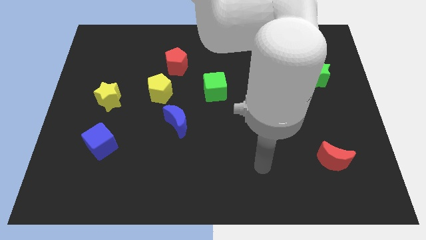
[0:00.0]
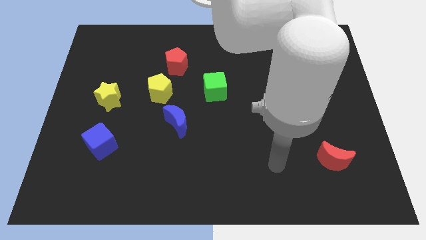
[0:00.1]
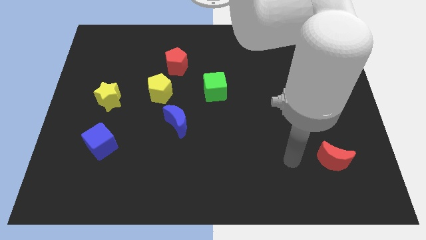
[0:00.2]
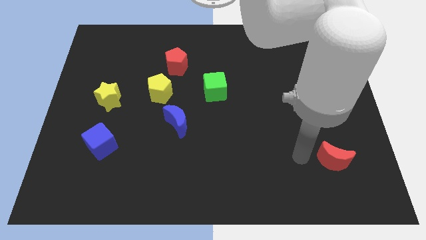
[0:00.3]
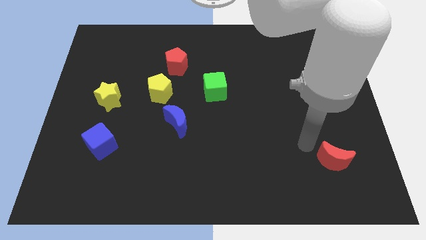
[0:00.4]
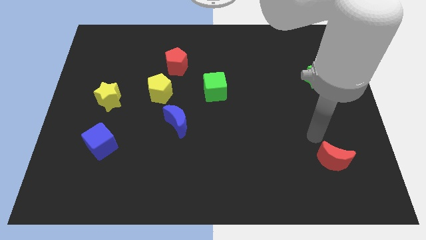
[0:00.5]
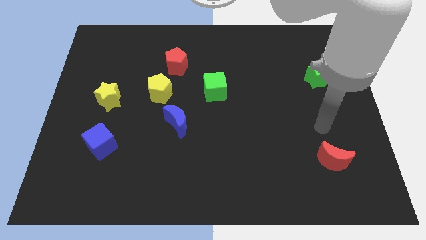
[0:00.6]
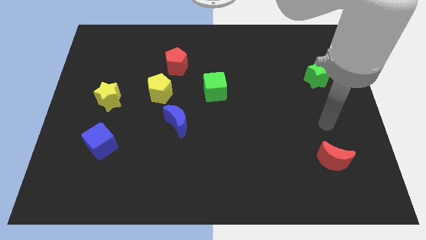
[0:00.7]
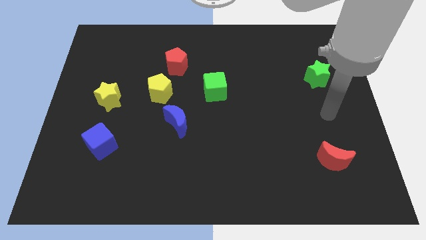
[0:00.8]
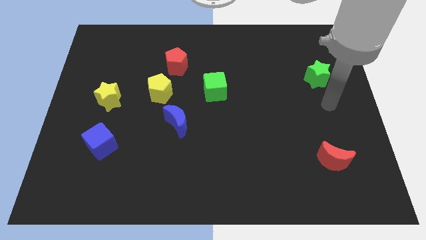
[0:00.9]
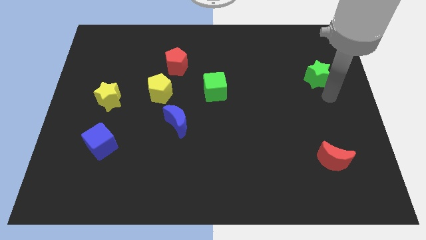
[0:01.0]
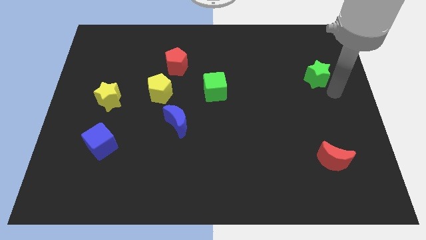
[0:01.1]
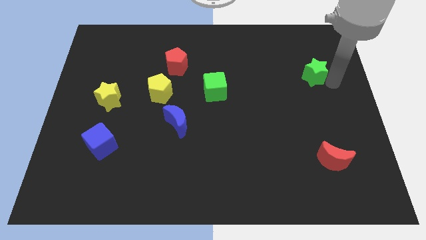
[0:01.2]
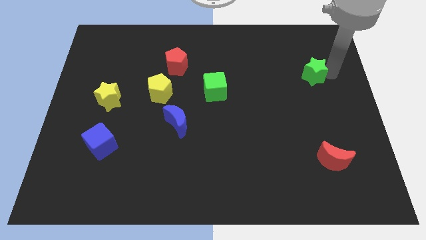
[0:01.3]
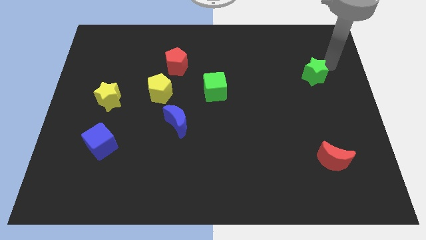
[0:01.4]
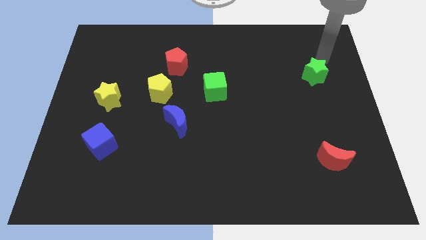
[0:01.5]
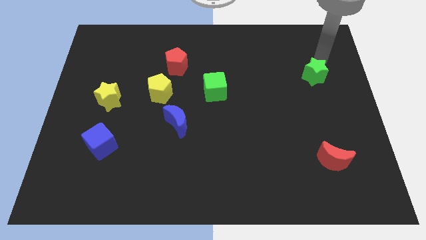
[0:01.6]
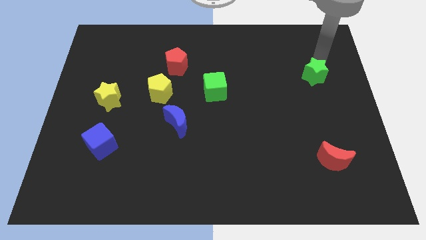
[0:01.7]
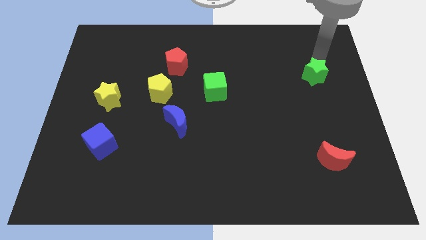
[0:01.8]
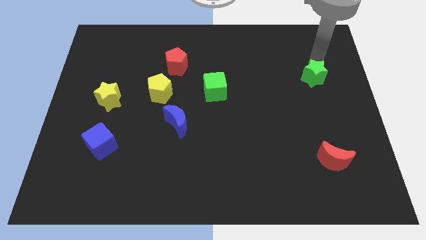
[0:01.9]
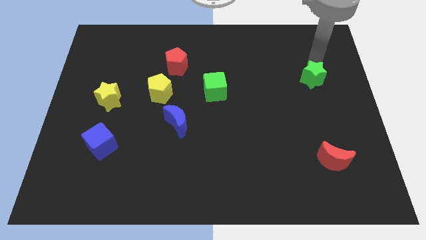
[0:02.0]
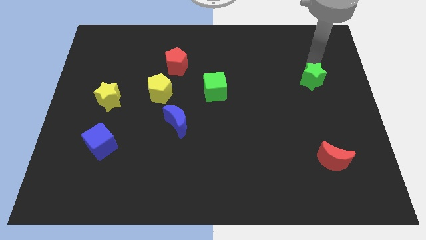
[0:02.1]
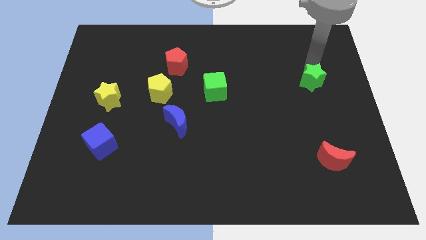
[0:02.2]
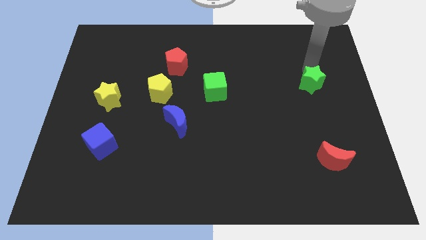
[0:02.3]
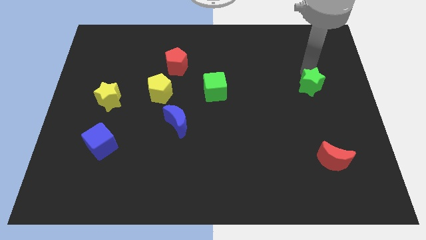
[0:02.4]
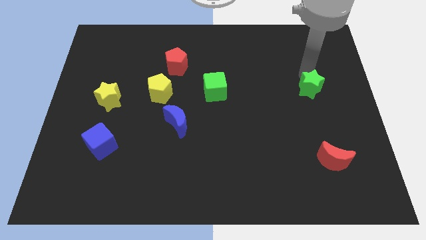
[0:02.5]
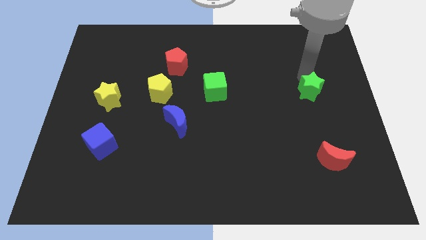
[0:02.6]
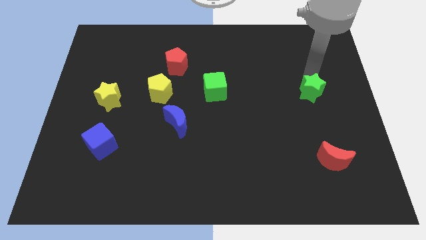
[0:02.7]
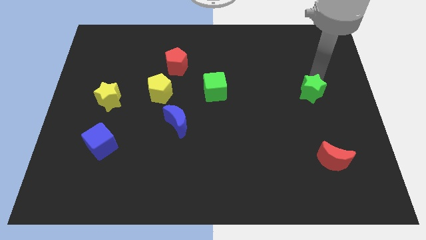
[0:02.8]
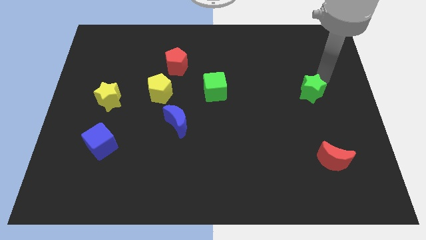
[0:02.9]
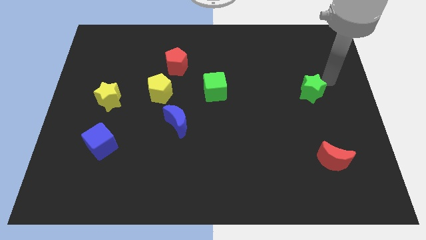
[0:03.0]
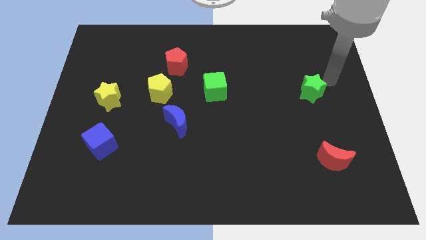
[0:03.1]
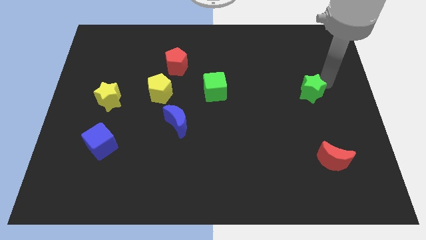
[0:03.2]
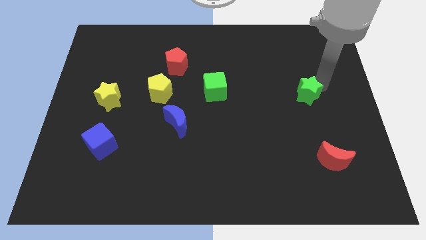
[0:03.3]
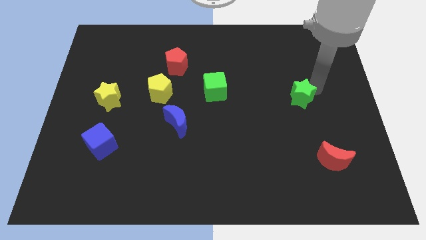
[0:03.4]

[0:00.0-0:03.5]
slightly push the green star down and left

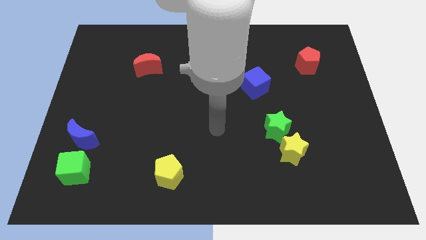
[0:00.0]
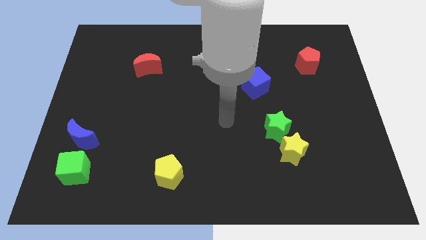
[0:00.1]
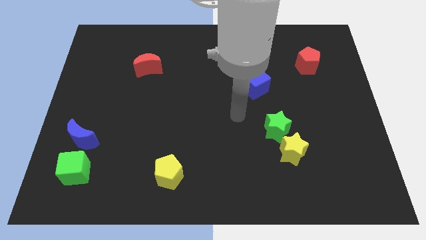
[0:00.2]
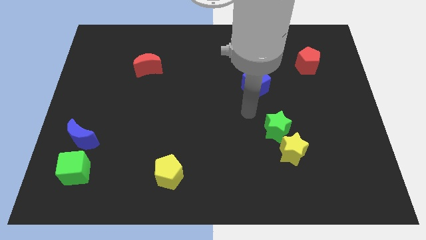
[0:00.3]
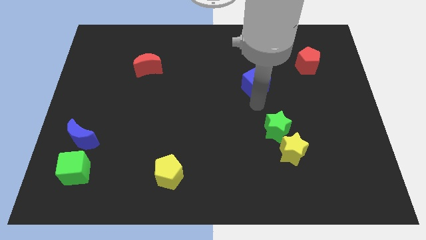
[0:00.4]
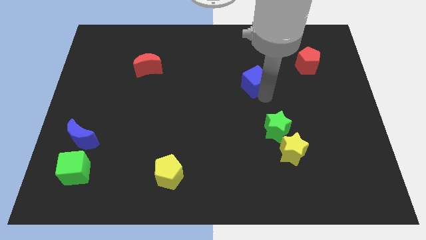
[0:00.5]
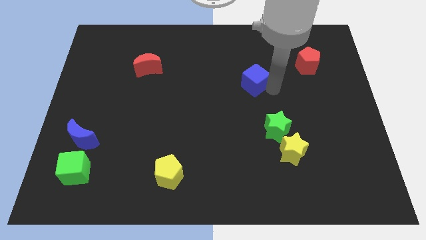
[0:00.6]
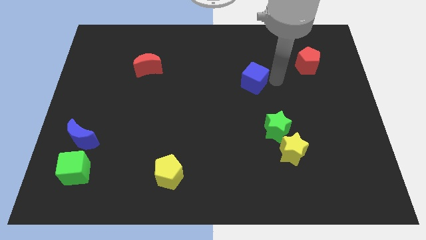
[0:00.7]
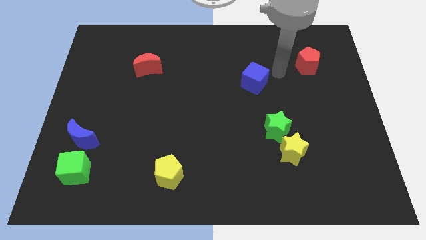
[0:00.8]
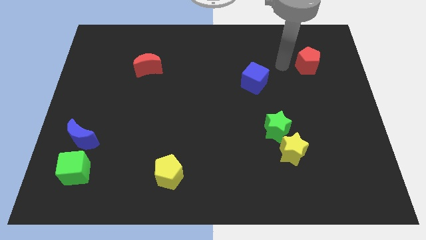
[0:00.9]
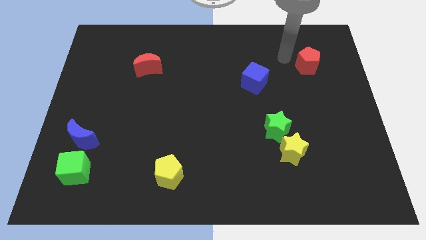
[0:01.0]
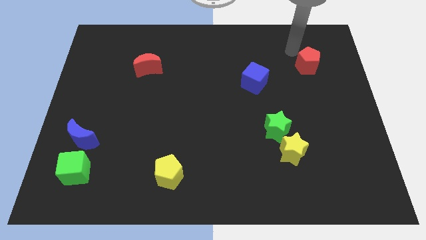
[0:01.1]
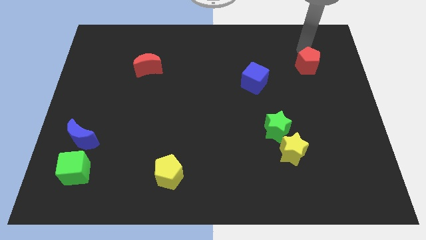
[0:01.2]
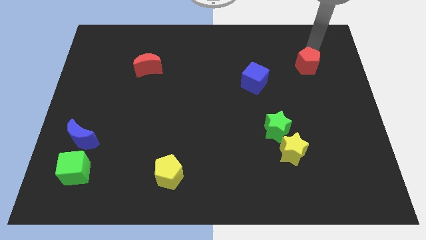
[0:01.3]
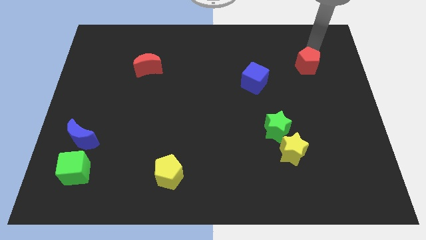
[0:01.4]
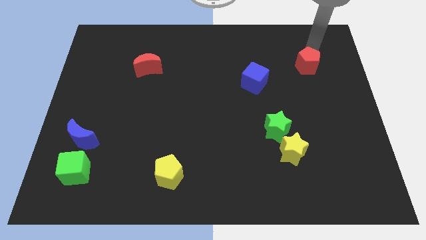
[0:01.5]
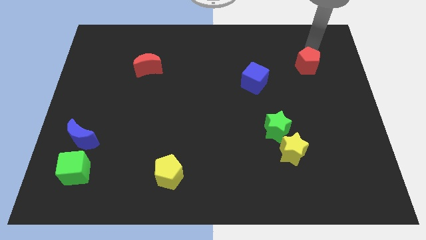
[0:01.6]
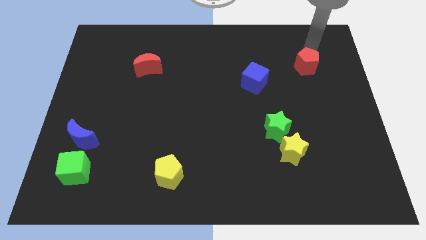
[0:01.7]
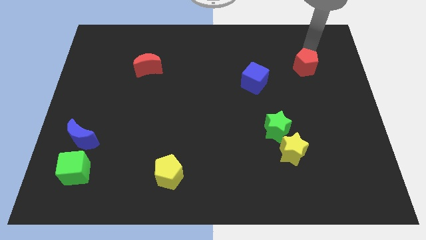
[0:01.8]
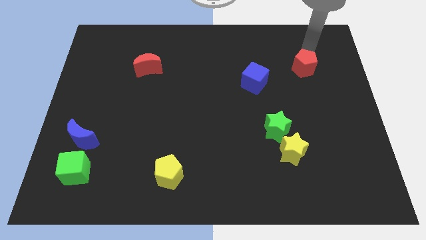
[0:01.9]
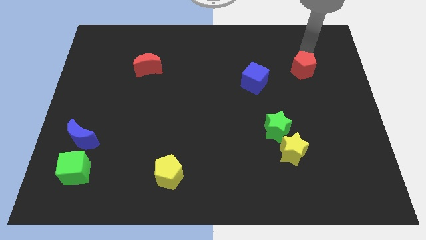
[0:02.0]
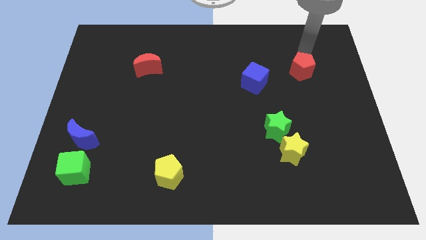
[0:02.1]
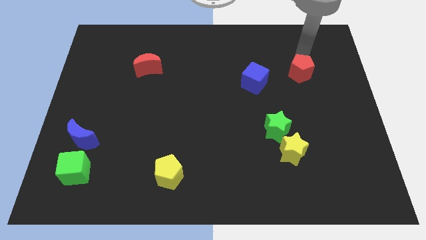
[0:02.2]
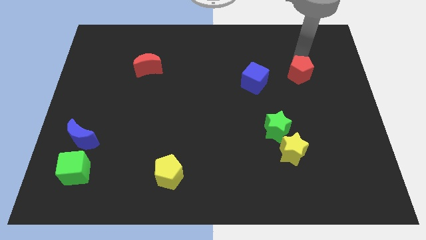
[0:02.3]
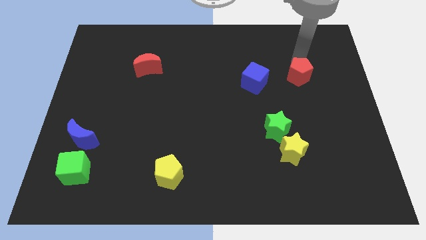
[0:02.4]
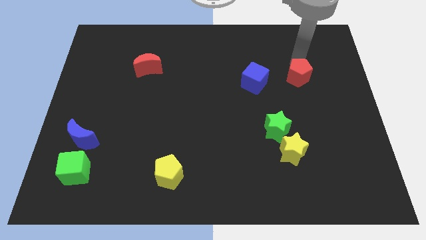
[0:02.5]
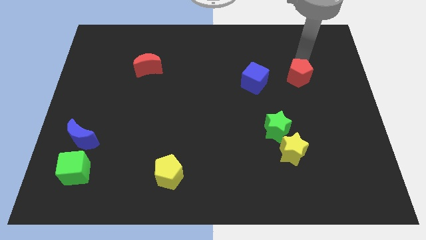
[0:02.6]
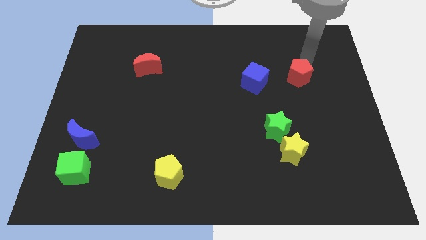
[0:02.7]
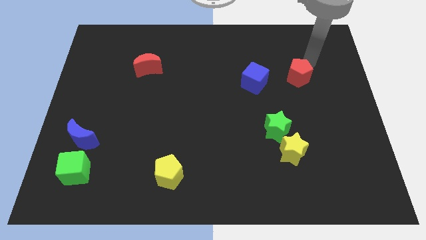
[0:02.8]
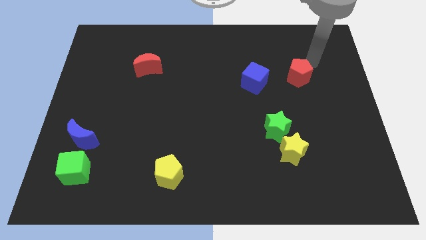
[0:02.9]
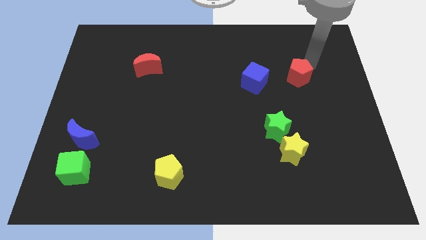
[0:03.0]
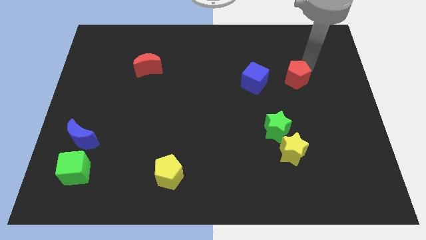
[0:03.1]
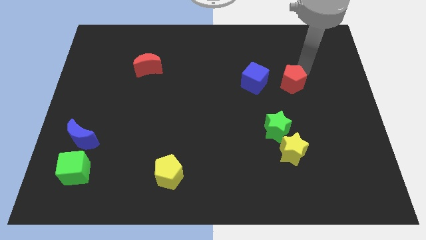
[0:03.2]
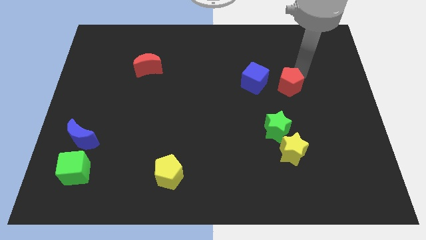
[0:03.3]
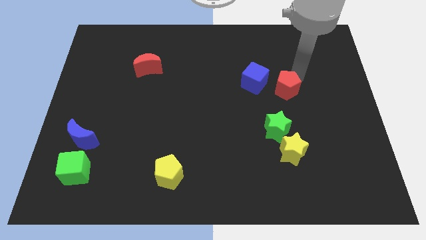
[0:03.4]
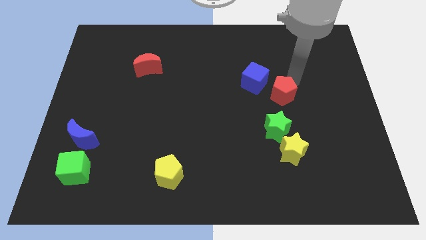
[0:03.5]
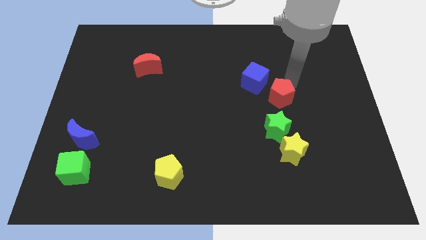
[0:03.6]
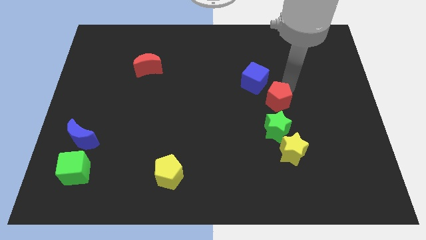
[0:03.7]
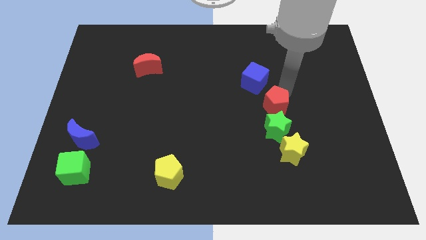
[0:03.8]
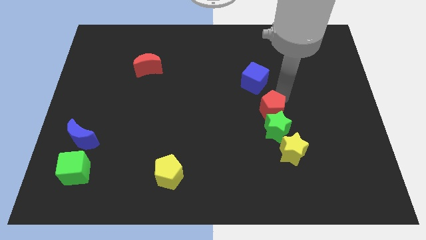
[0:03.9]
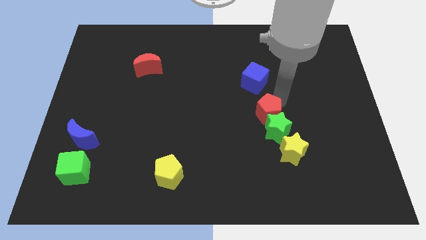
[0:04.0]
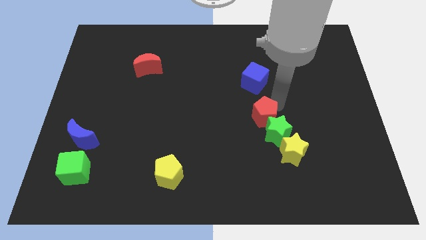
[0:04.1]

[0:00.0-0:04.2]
push the red pentagon diagonally downwards and left

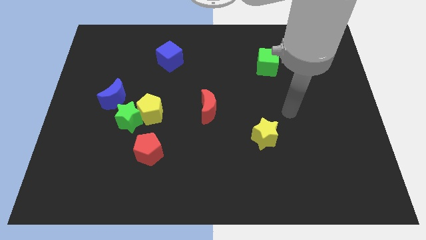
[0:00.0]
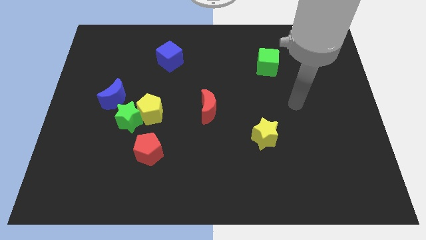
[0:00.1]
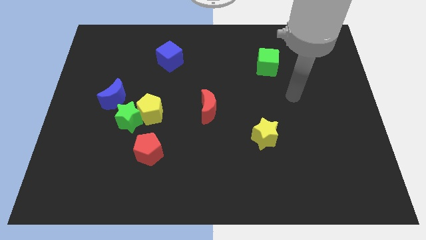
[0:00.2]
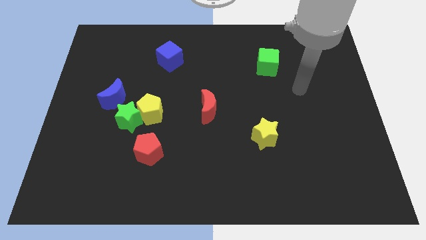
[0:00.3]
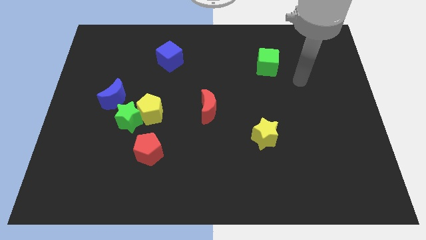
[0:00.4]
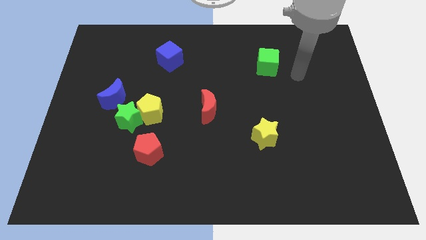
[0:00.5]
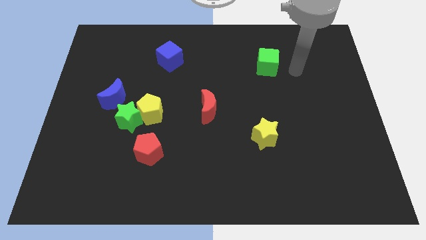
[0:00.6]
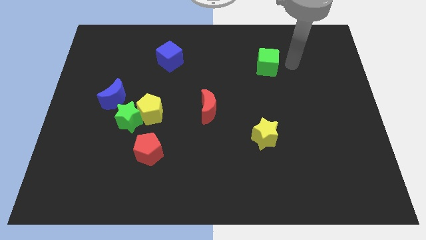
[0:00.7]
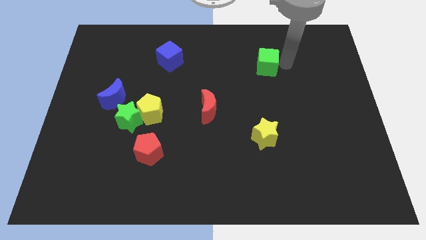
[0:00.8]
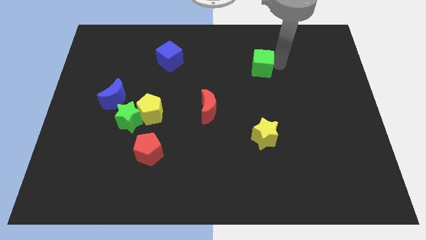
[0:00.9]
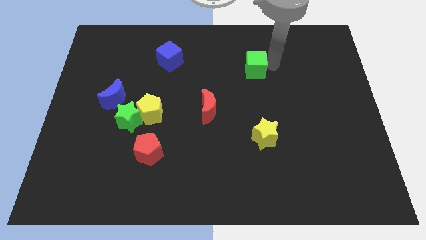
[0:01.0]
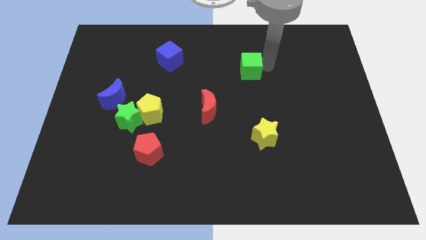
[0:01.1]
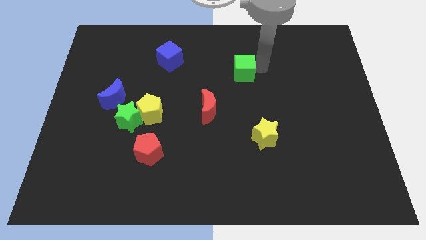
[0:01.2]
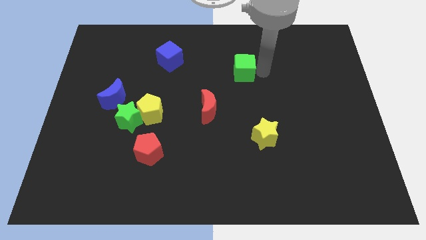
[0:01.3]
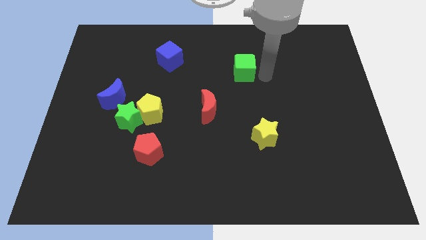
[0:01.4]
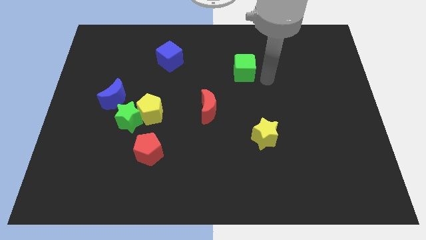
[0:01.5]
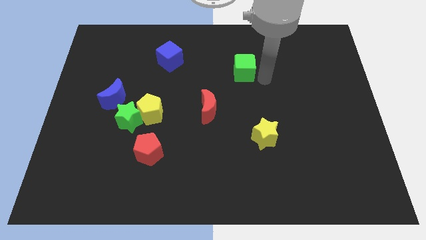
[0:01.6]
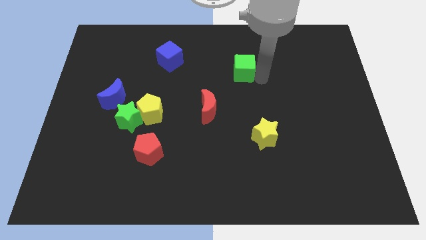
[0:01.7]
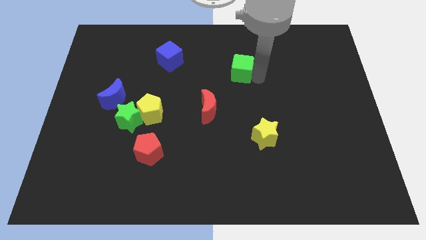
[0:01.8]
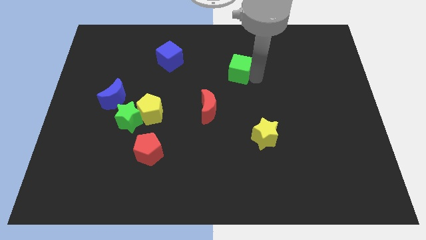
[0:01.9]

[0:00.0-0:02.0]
slide the green cube a little to the left
